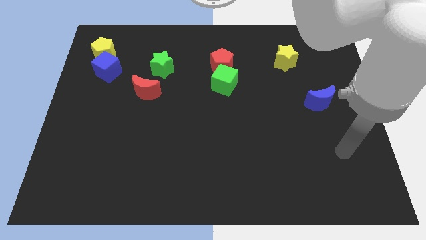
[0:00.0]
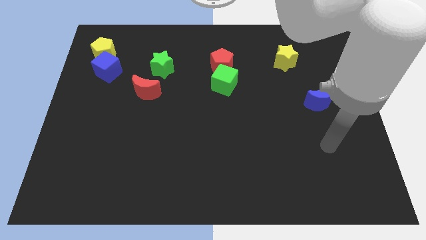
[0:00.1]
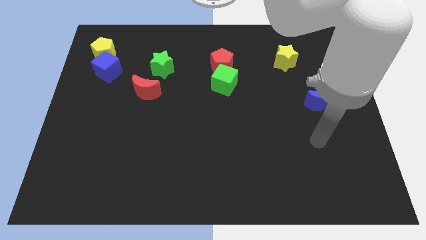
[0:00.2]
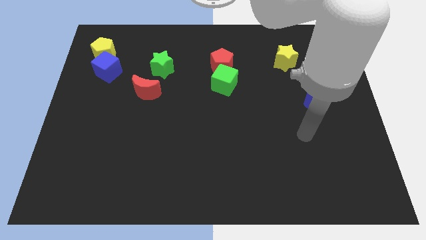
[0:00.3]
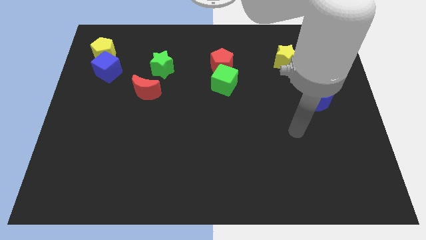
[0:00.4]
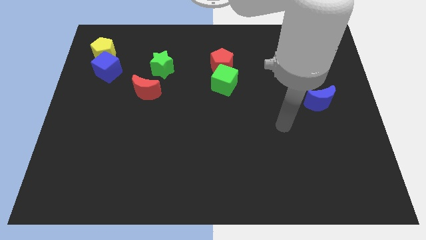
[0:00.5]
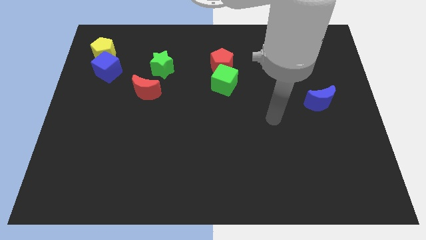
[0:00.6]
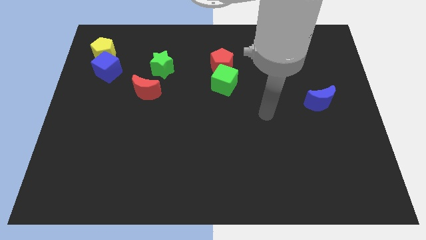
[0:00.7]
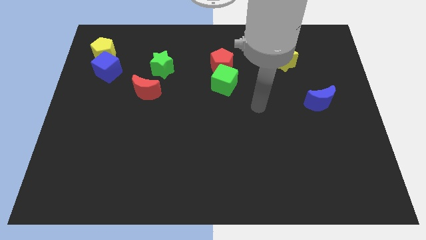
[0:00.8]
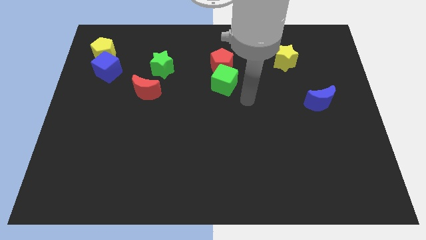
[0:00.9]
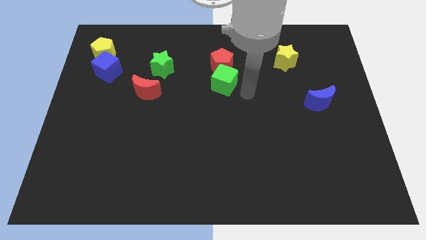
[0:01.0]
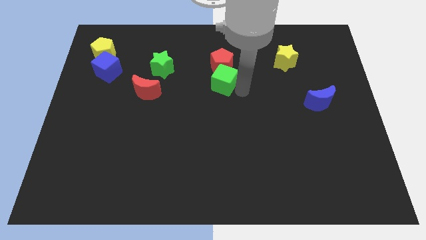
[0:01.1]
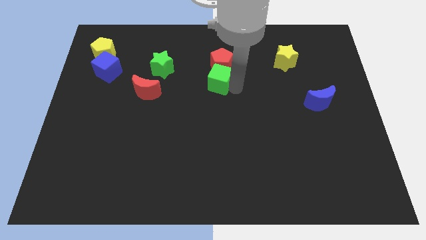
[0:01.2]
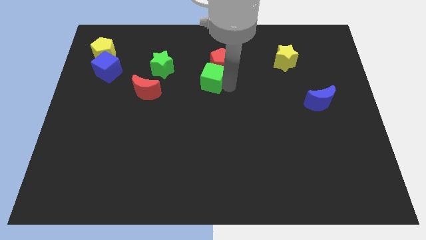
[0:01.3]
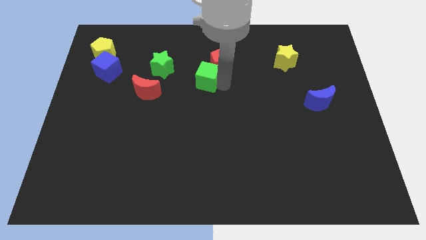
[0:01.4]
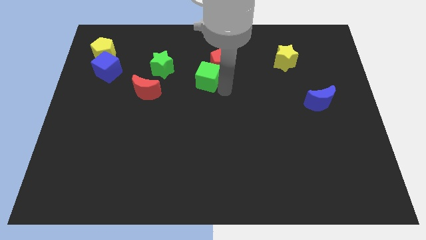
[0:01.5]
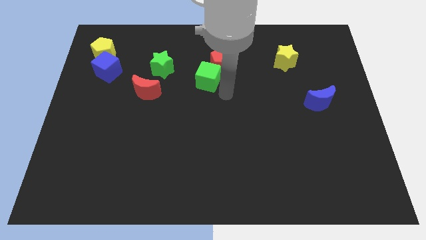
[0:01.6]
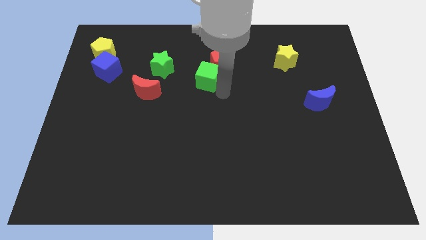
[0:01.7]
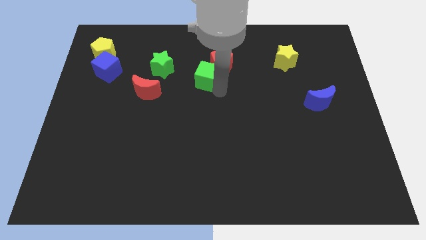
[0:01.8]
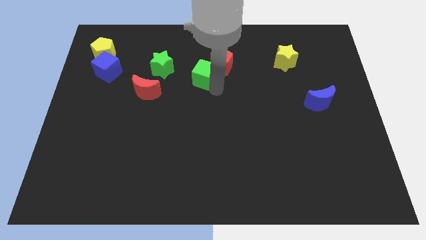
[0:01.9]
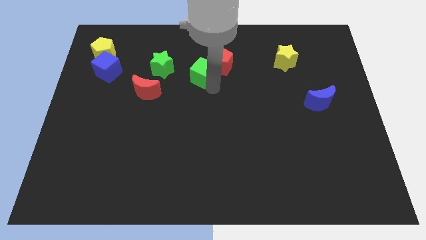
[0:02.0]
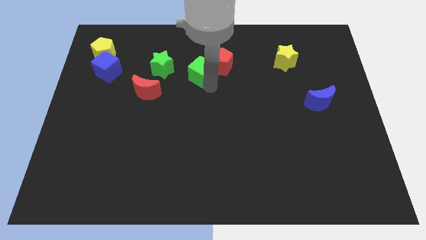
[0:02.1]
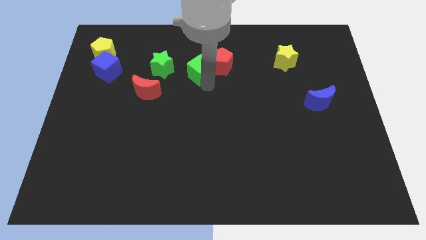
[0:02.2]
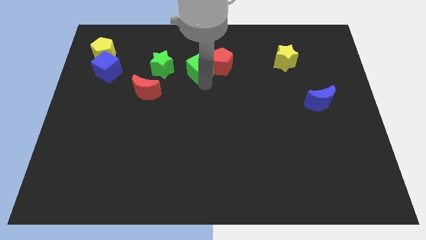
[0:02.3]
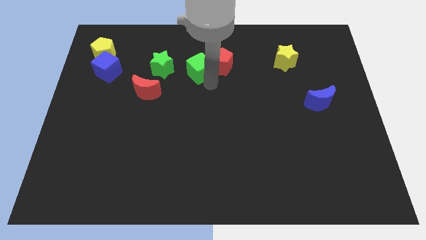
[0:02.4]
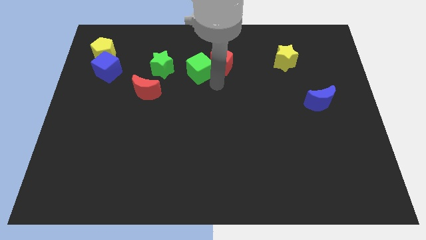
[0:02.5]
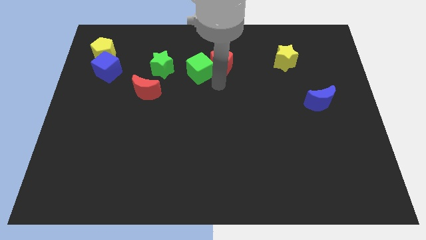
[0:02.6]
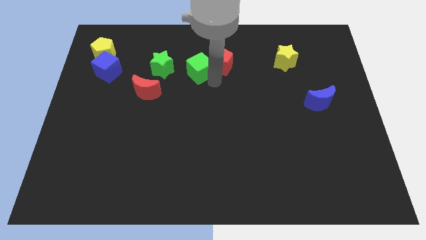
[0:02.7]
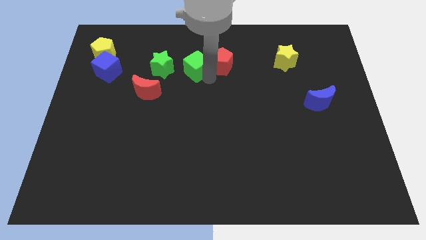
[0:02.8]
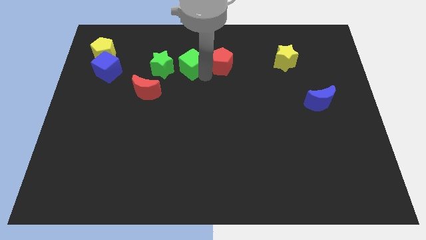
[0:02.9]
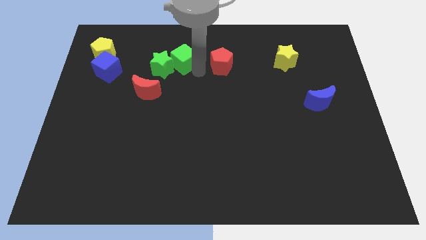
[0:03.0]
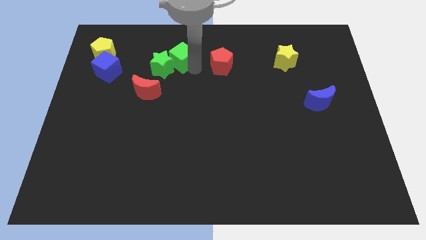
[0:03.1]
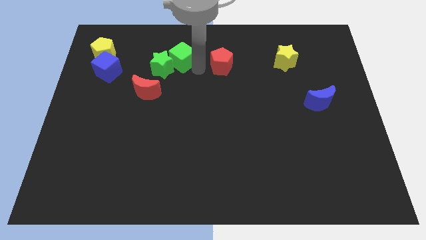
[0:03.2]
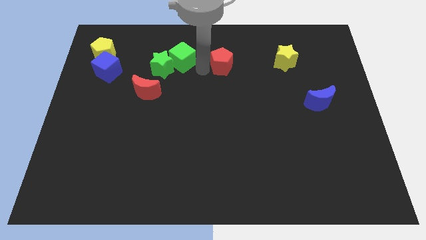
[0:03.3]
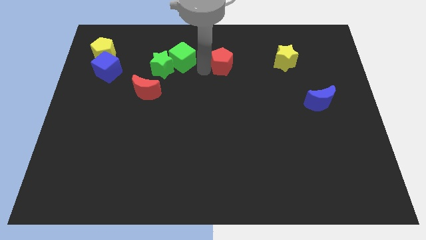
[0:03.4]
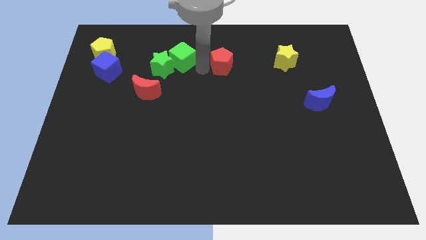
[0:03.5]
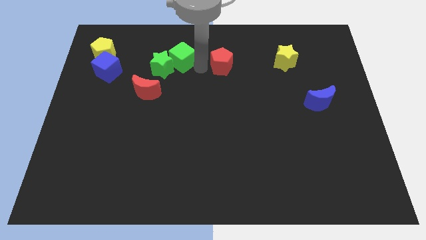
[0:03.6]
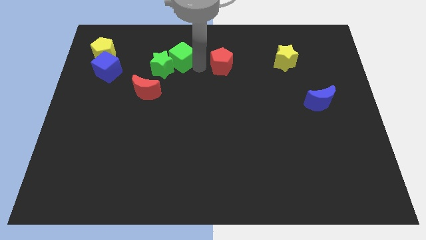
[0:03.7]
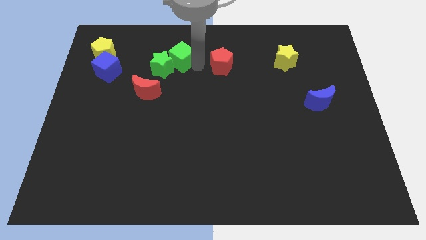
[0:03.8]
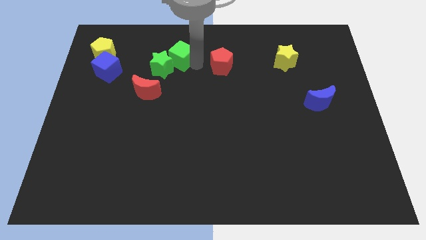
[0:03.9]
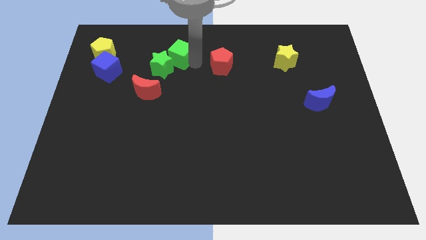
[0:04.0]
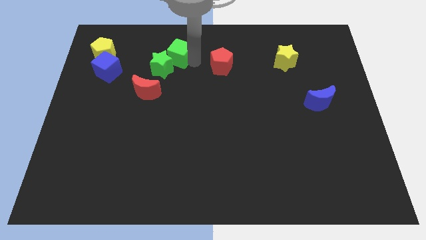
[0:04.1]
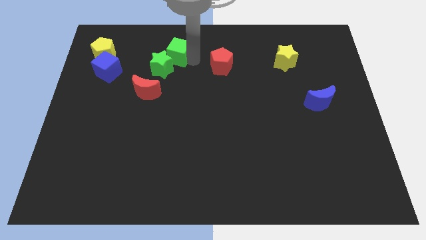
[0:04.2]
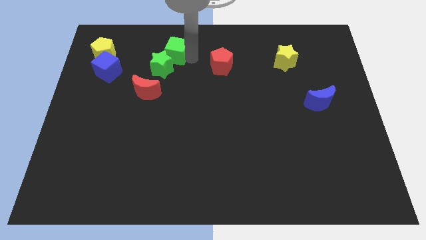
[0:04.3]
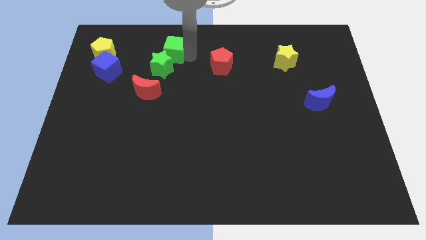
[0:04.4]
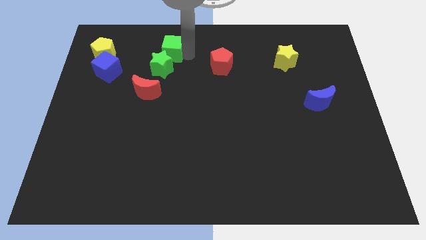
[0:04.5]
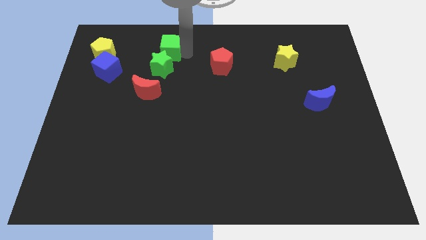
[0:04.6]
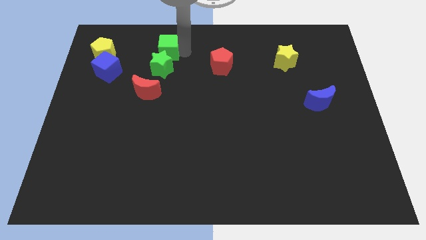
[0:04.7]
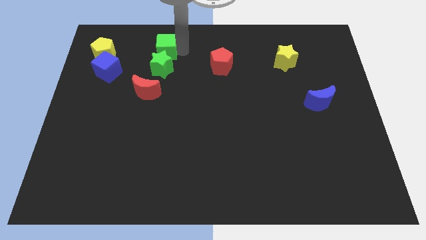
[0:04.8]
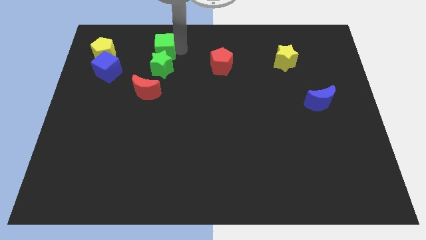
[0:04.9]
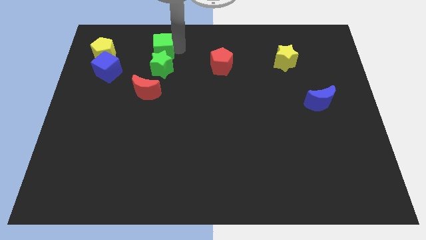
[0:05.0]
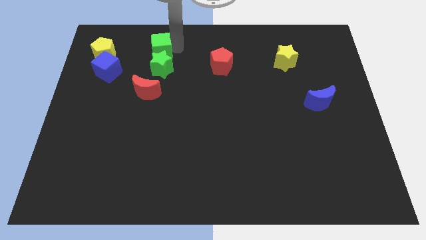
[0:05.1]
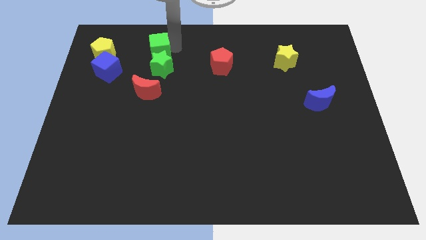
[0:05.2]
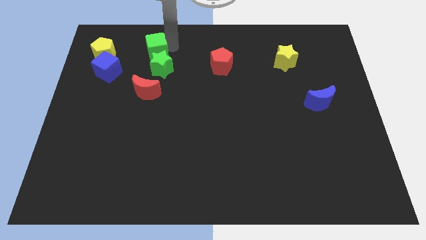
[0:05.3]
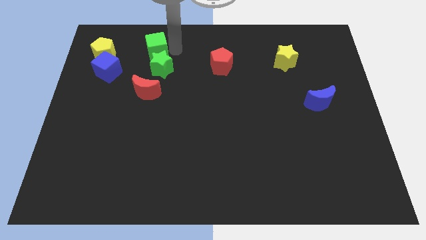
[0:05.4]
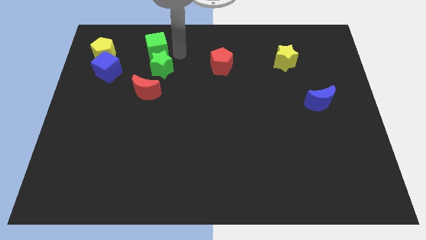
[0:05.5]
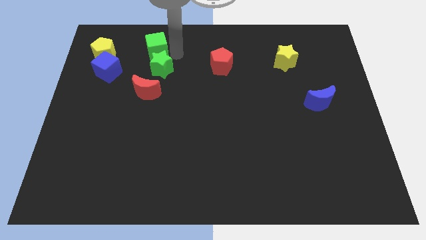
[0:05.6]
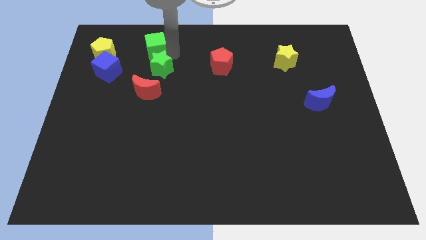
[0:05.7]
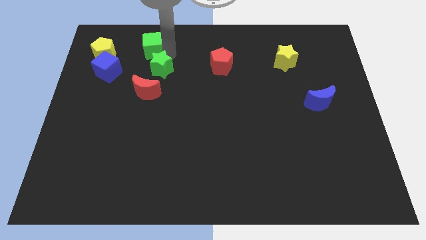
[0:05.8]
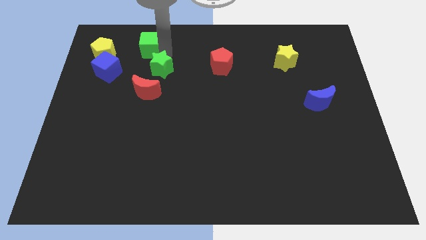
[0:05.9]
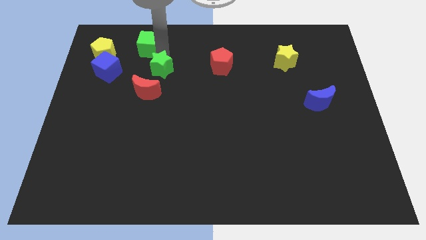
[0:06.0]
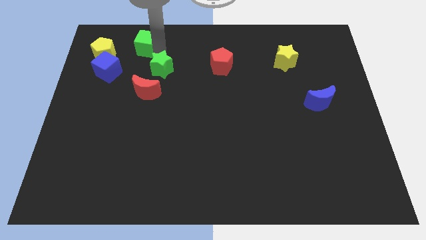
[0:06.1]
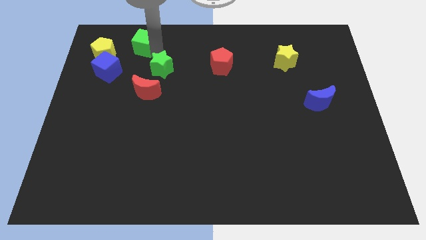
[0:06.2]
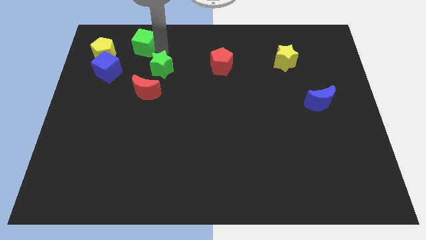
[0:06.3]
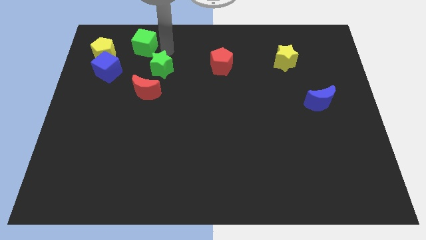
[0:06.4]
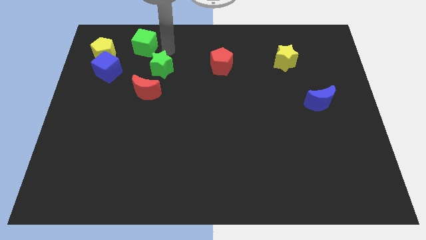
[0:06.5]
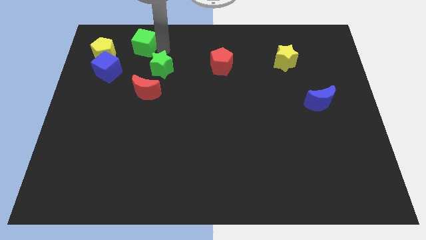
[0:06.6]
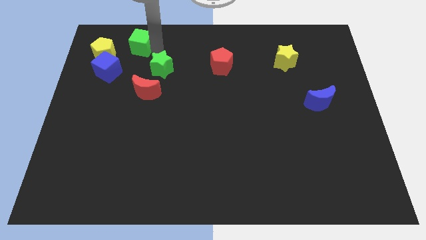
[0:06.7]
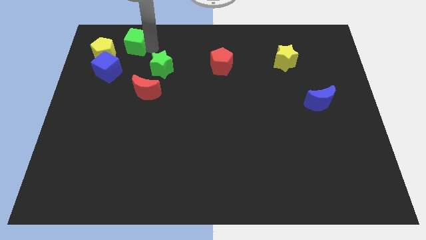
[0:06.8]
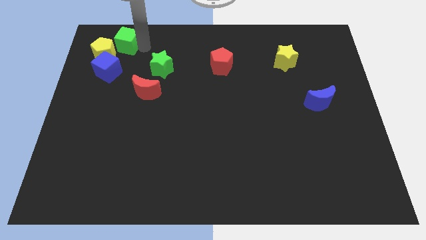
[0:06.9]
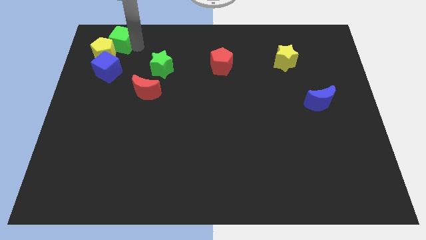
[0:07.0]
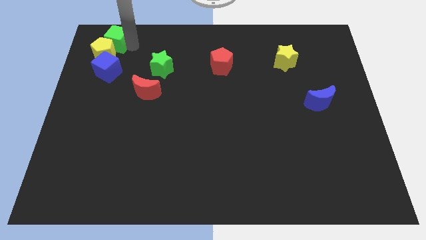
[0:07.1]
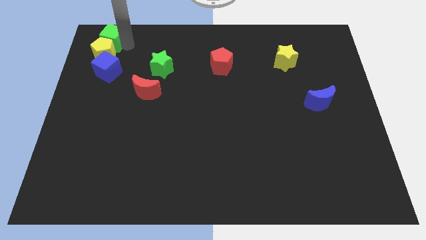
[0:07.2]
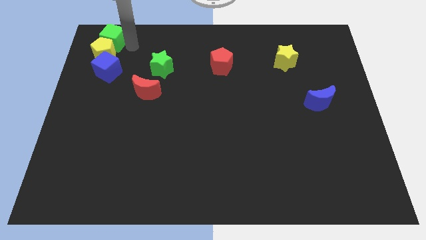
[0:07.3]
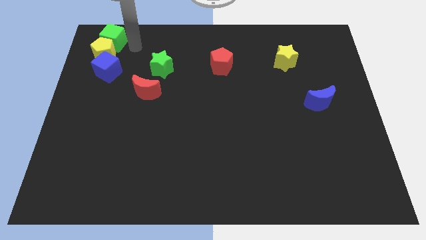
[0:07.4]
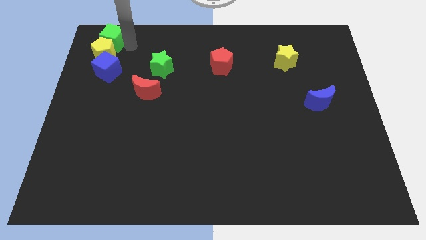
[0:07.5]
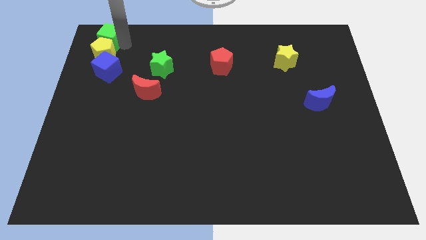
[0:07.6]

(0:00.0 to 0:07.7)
put the green cube to the top left of the board
